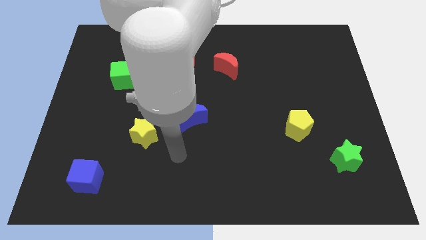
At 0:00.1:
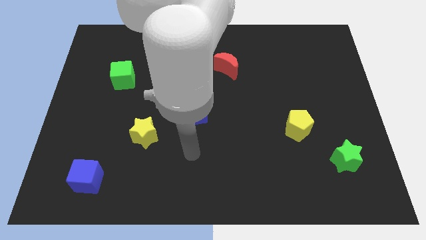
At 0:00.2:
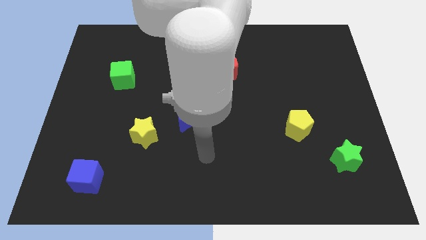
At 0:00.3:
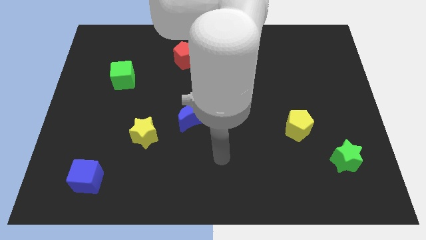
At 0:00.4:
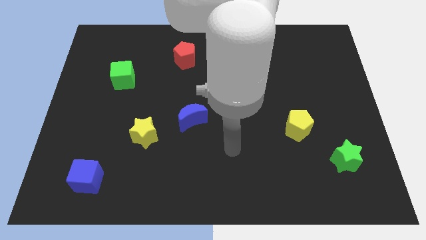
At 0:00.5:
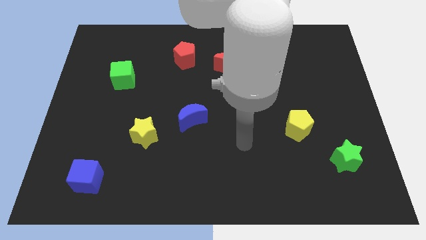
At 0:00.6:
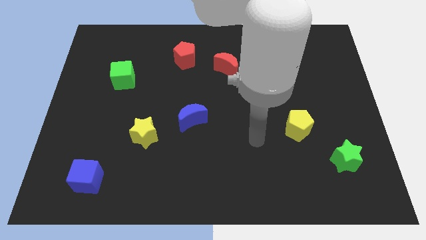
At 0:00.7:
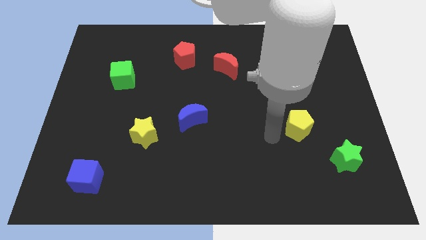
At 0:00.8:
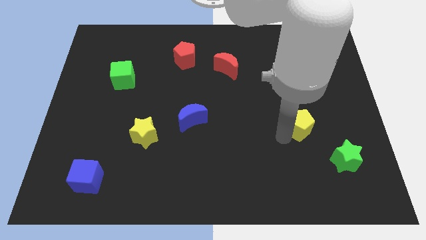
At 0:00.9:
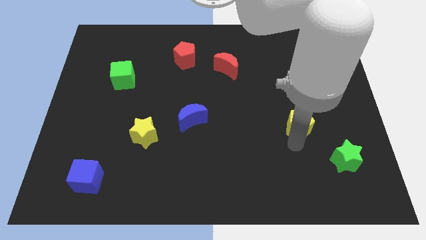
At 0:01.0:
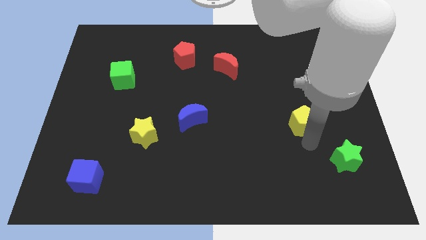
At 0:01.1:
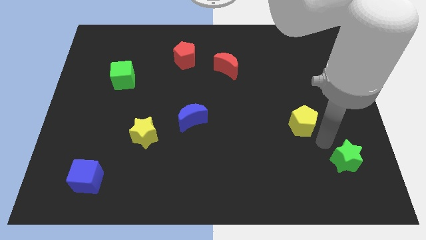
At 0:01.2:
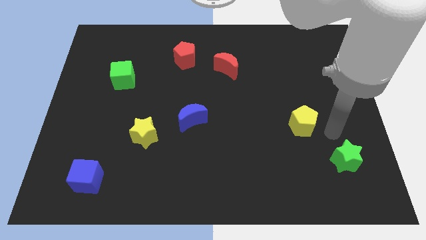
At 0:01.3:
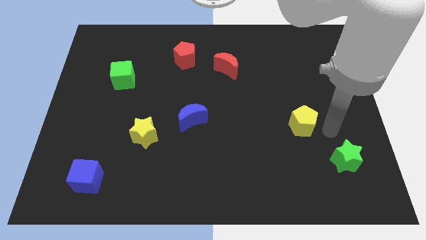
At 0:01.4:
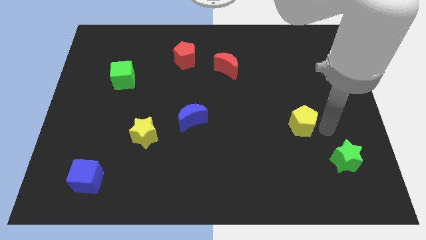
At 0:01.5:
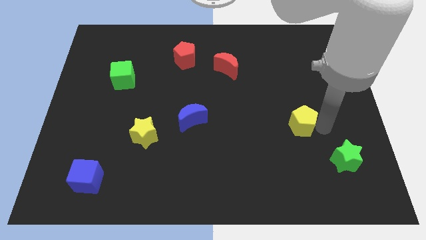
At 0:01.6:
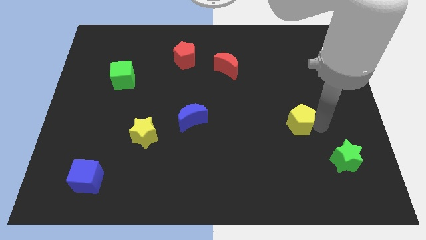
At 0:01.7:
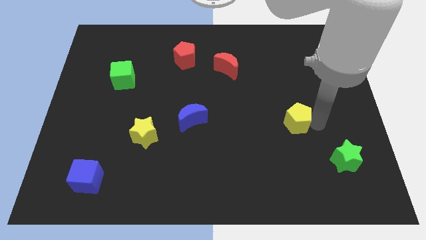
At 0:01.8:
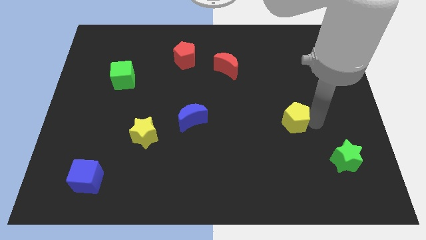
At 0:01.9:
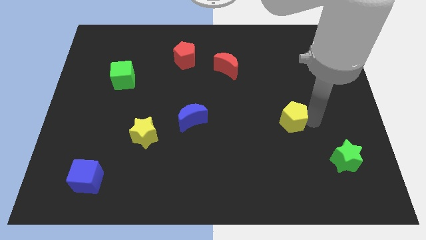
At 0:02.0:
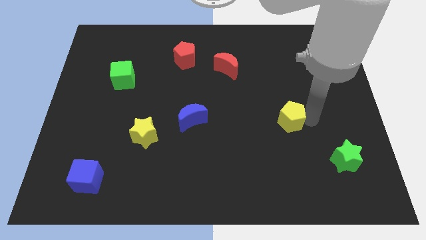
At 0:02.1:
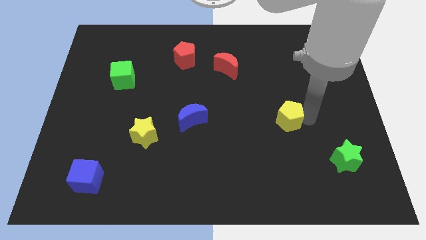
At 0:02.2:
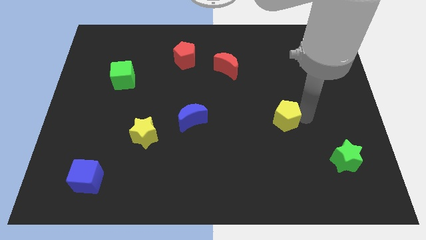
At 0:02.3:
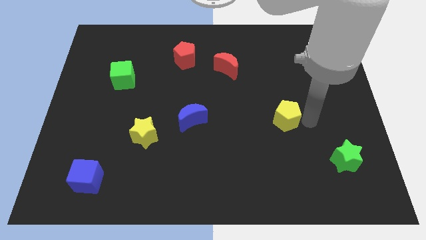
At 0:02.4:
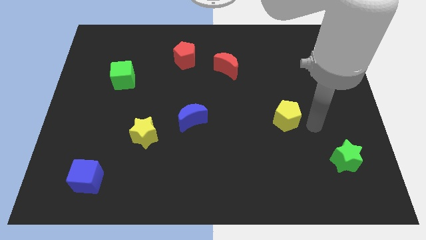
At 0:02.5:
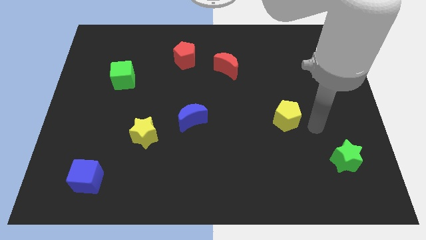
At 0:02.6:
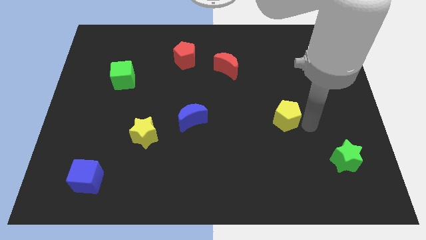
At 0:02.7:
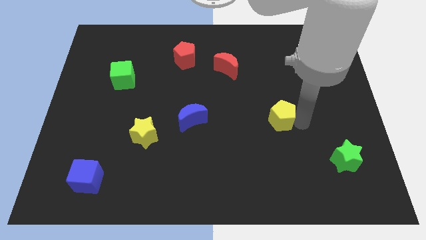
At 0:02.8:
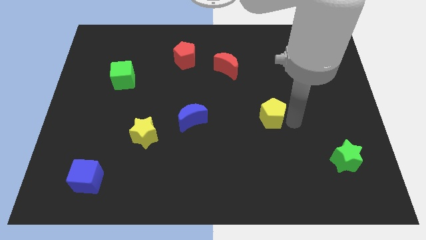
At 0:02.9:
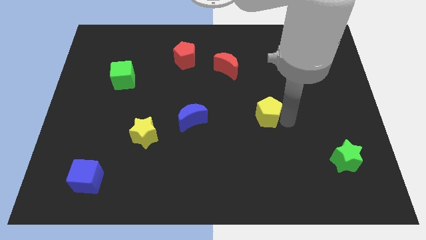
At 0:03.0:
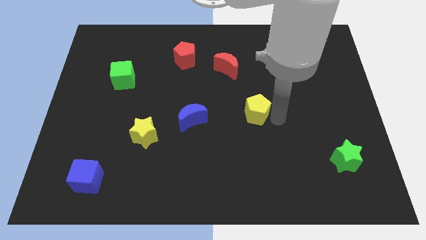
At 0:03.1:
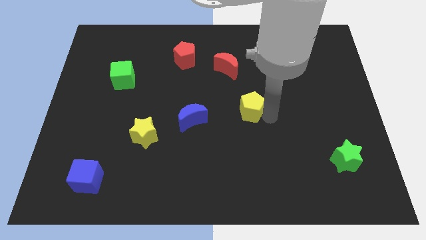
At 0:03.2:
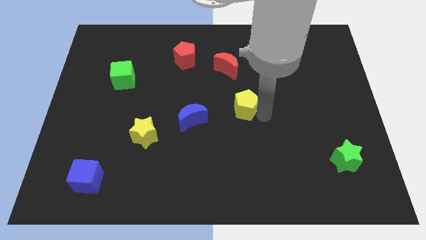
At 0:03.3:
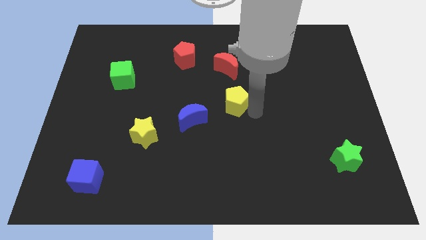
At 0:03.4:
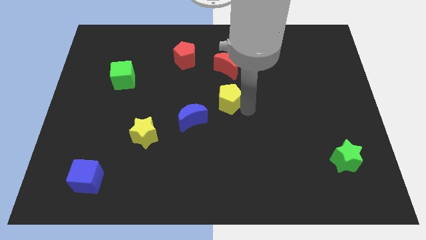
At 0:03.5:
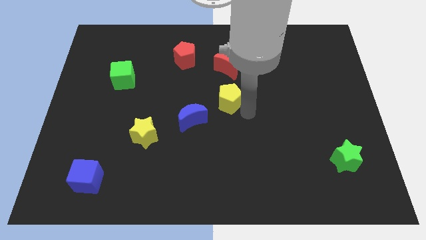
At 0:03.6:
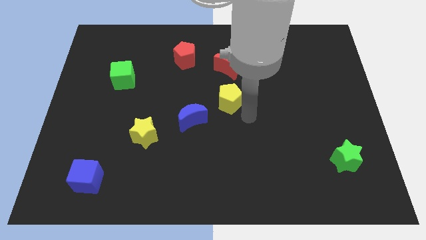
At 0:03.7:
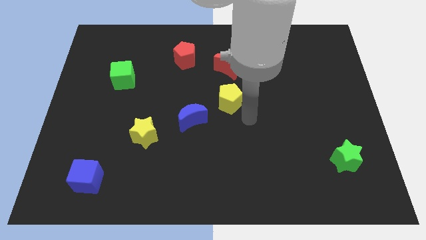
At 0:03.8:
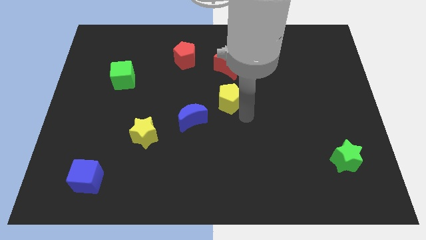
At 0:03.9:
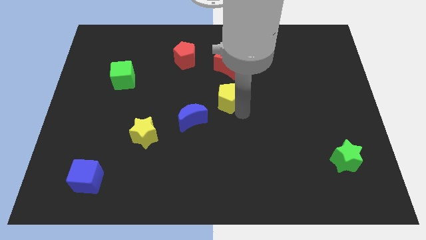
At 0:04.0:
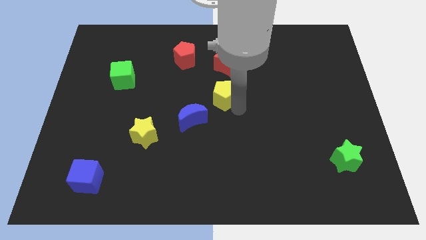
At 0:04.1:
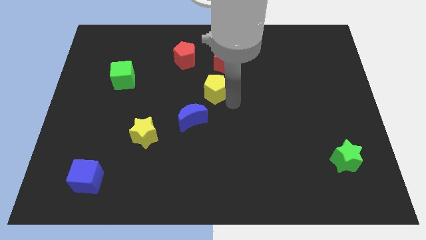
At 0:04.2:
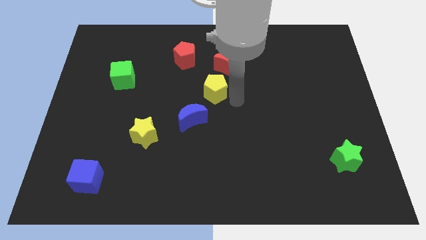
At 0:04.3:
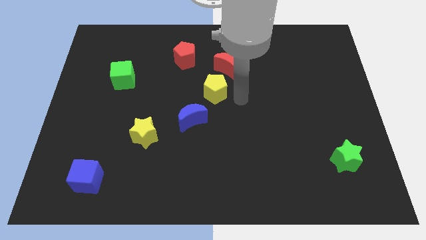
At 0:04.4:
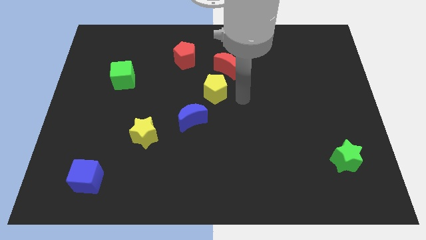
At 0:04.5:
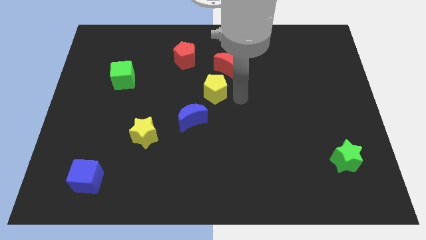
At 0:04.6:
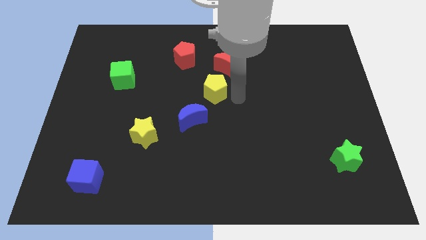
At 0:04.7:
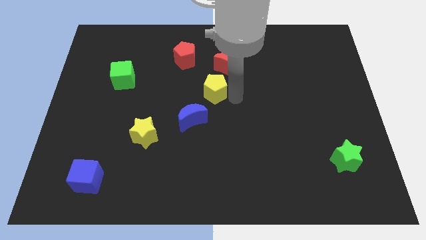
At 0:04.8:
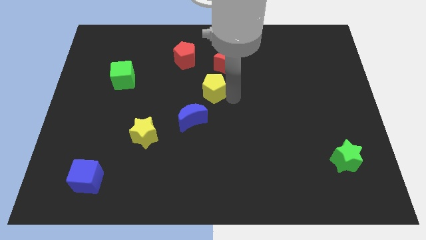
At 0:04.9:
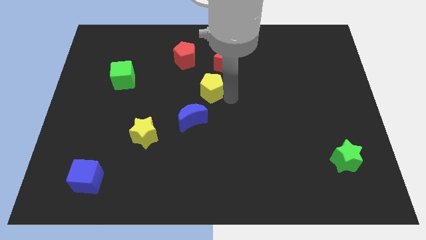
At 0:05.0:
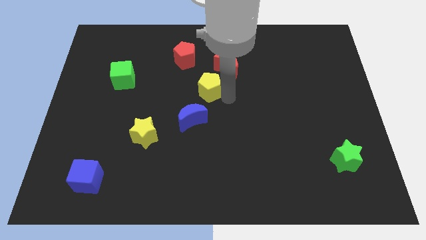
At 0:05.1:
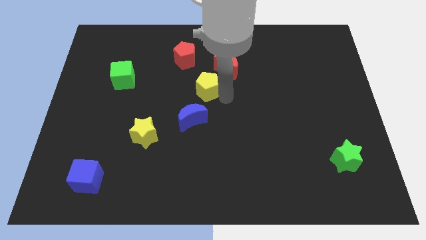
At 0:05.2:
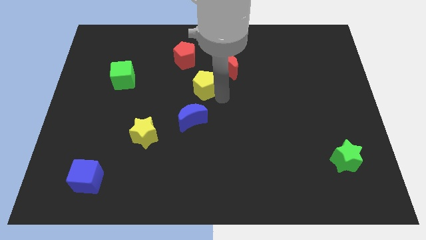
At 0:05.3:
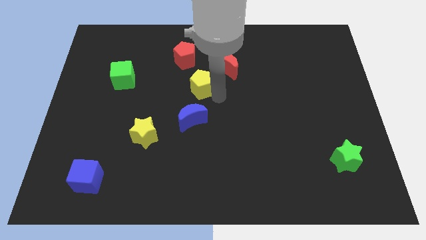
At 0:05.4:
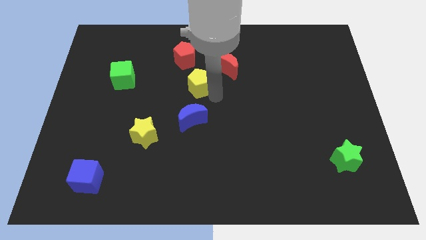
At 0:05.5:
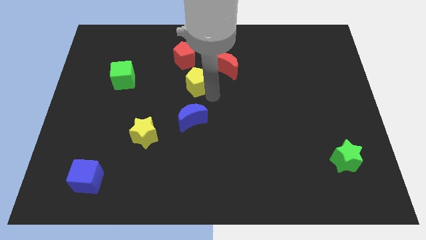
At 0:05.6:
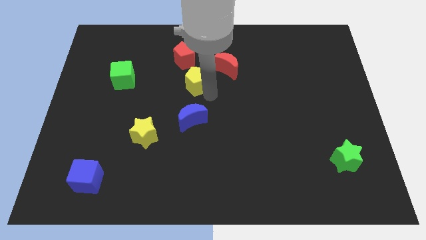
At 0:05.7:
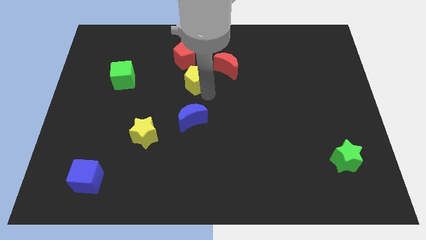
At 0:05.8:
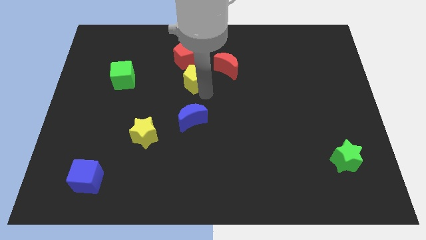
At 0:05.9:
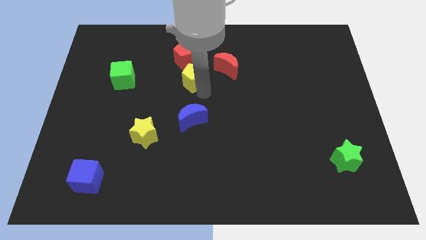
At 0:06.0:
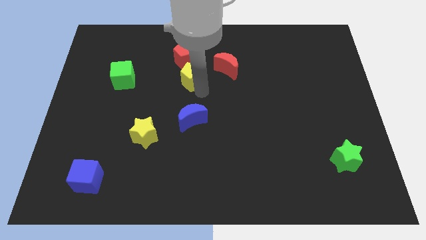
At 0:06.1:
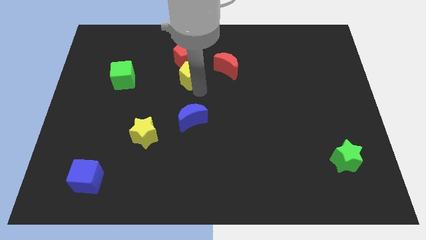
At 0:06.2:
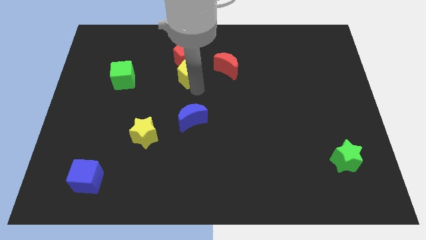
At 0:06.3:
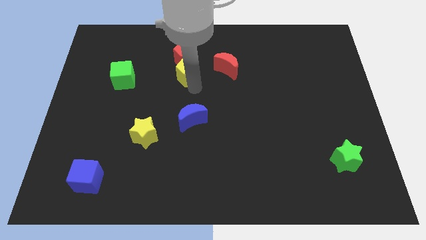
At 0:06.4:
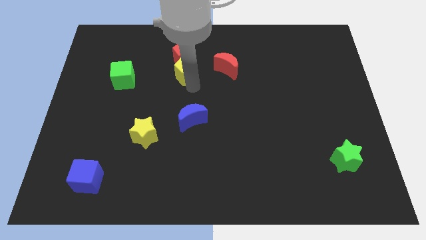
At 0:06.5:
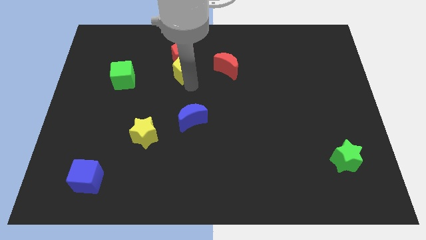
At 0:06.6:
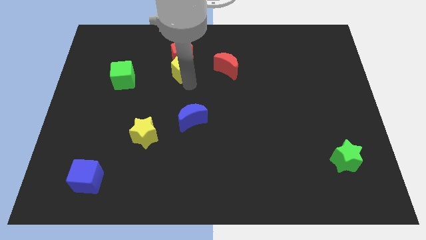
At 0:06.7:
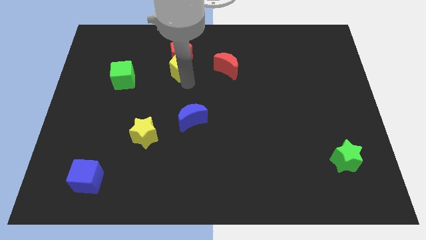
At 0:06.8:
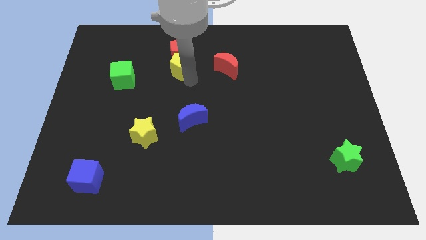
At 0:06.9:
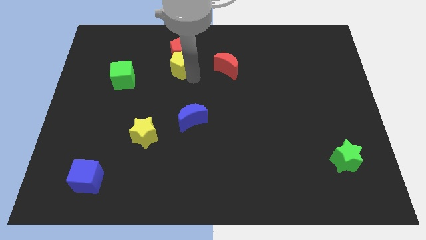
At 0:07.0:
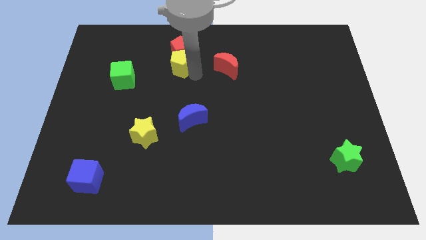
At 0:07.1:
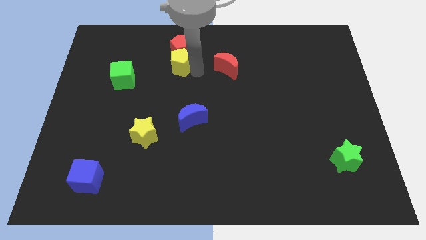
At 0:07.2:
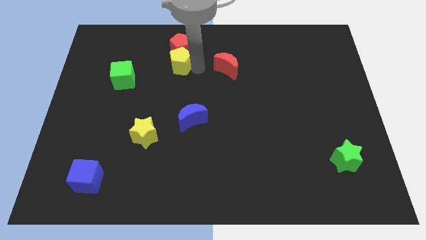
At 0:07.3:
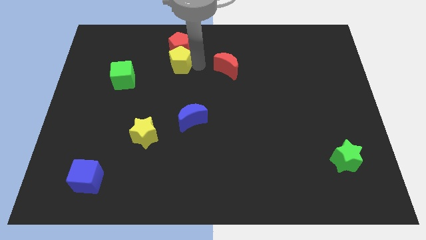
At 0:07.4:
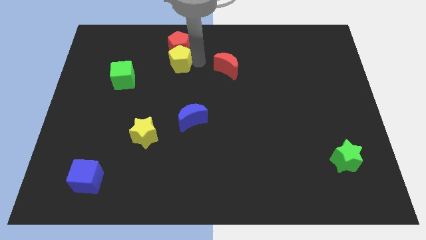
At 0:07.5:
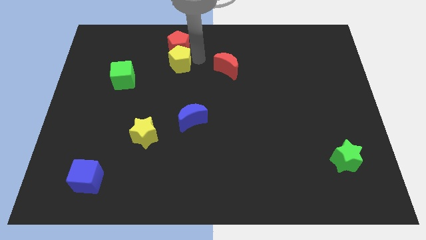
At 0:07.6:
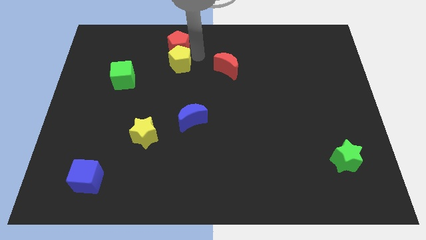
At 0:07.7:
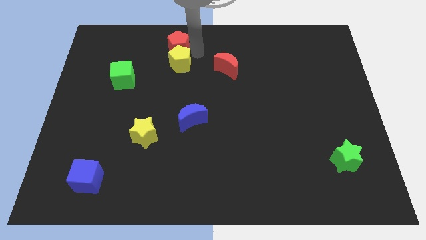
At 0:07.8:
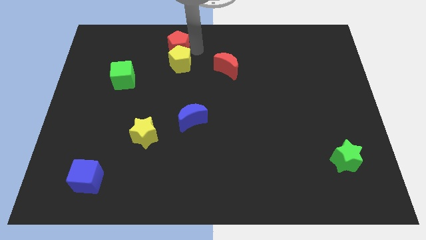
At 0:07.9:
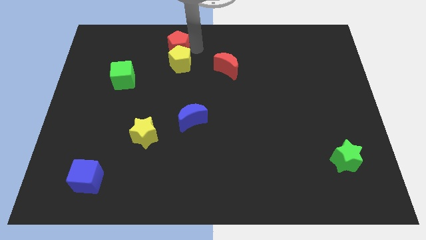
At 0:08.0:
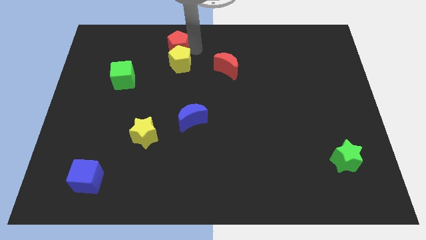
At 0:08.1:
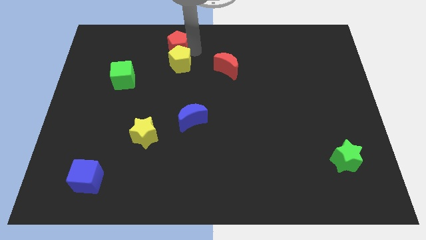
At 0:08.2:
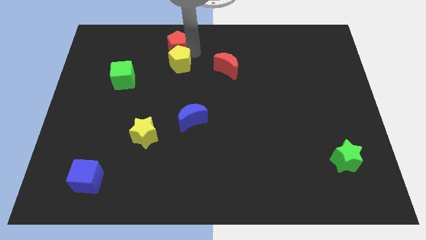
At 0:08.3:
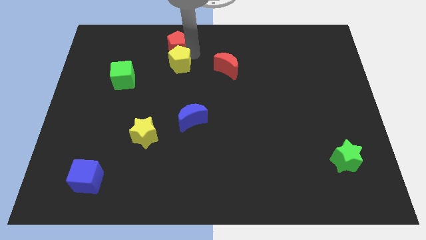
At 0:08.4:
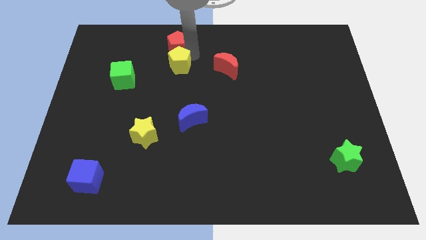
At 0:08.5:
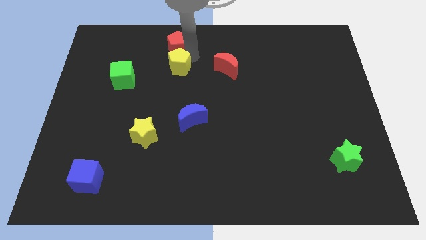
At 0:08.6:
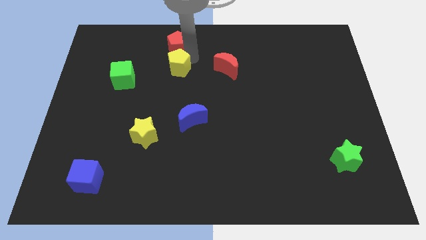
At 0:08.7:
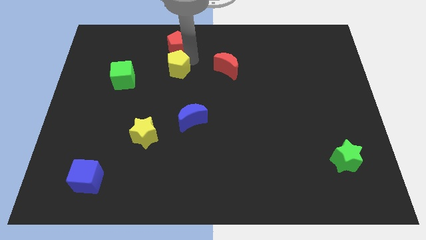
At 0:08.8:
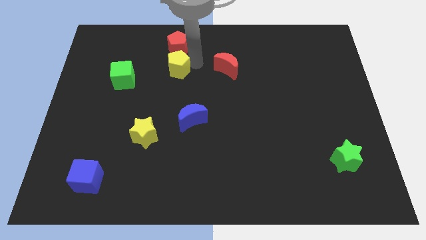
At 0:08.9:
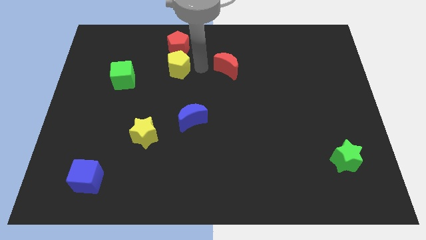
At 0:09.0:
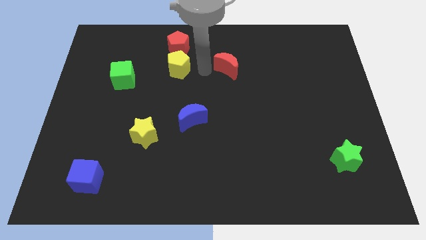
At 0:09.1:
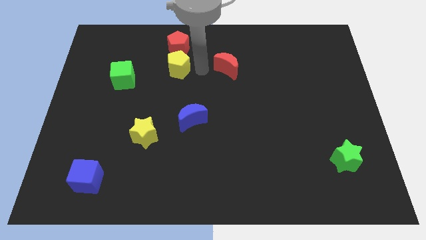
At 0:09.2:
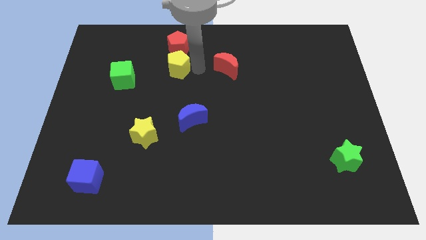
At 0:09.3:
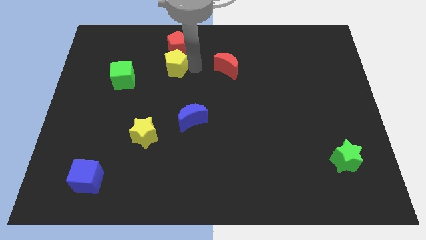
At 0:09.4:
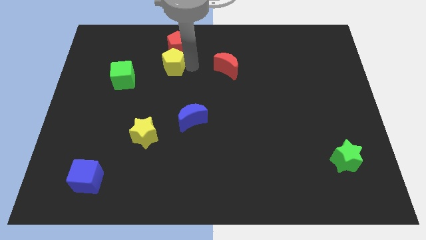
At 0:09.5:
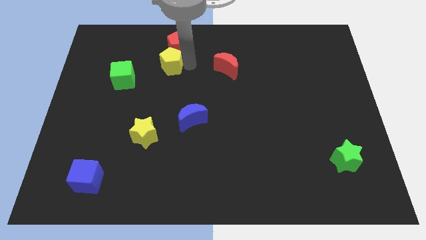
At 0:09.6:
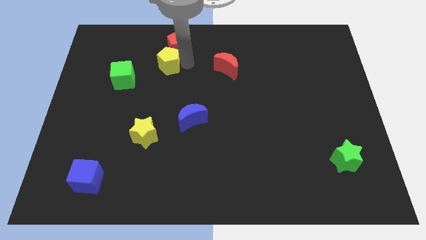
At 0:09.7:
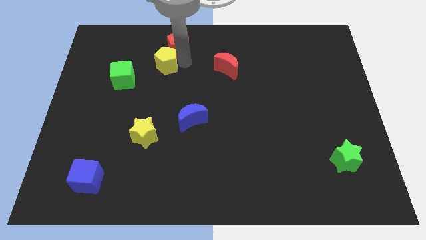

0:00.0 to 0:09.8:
put the yellow pentagon to the top right side of the green cube
